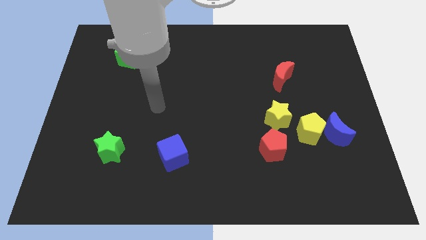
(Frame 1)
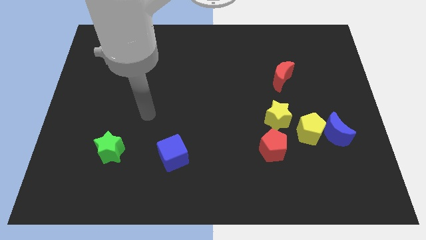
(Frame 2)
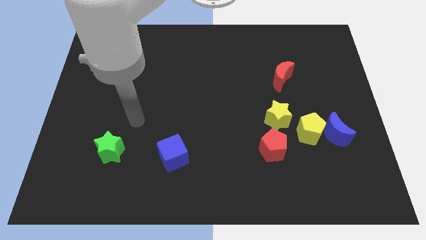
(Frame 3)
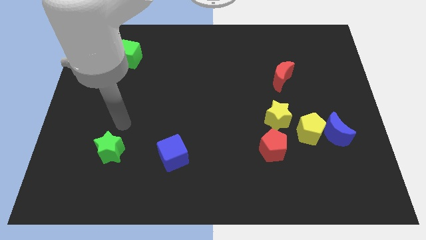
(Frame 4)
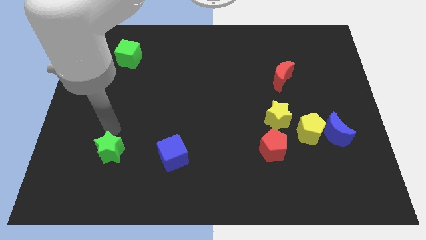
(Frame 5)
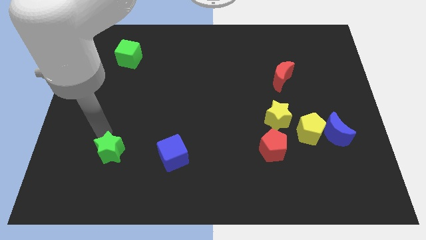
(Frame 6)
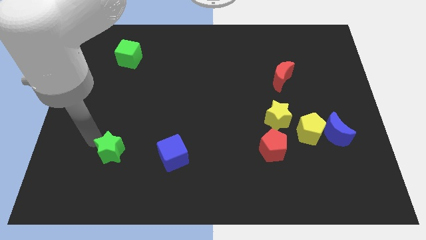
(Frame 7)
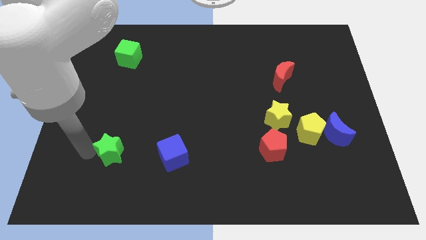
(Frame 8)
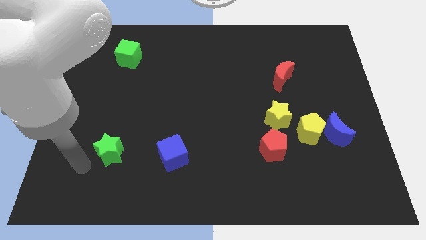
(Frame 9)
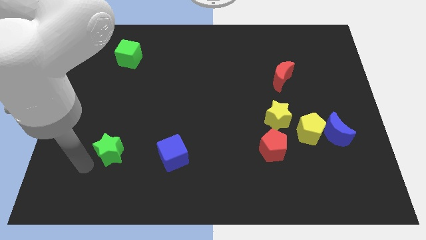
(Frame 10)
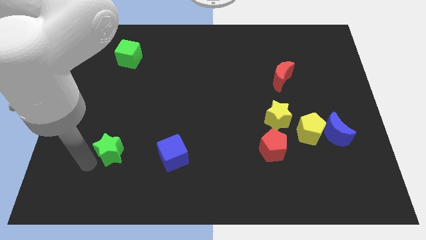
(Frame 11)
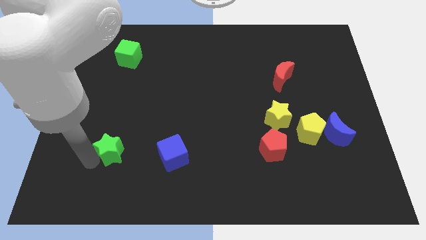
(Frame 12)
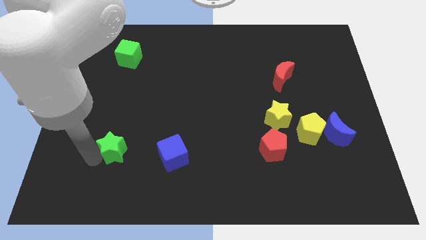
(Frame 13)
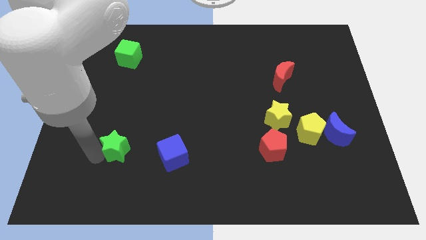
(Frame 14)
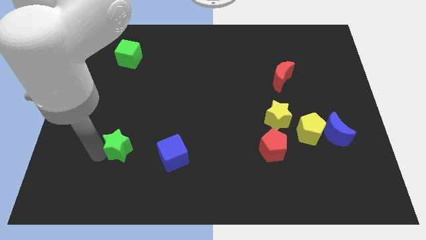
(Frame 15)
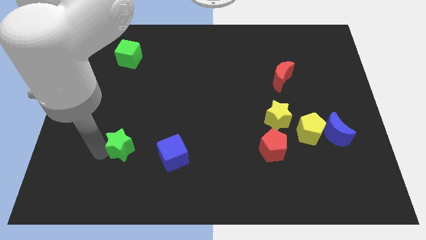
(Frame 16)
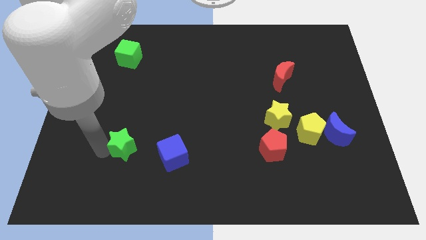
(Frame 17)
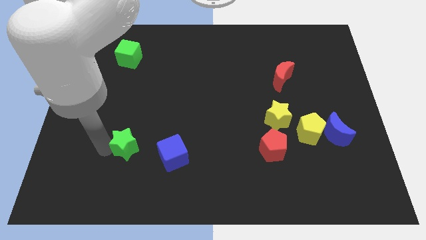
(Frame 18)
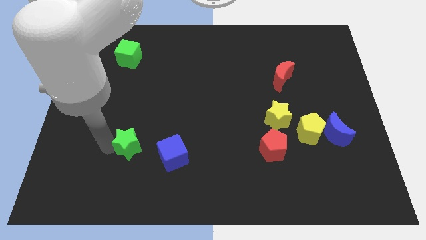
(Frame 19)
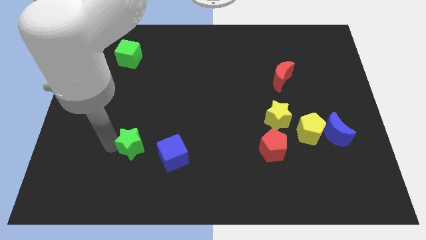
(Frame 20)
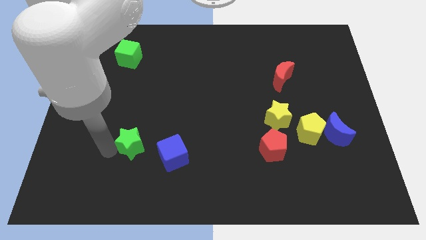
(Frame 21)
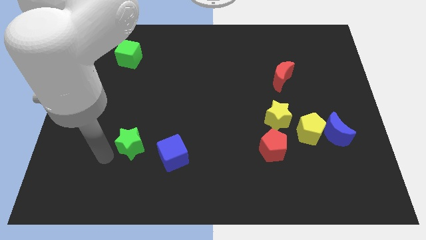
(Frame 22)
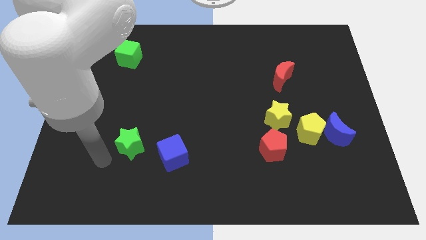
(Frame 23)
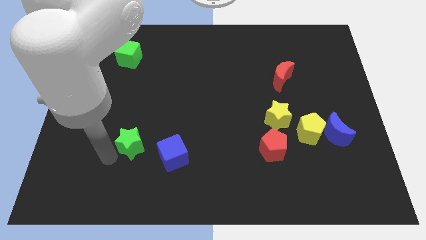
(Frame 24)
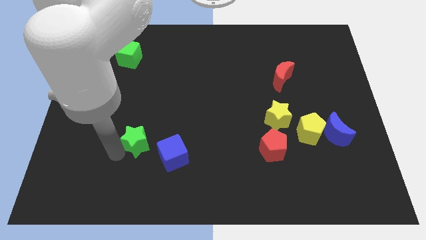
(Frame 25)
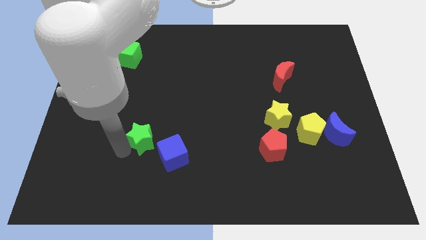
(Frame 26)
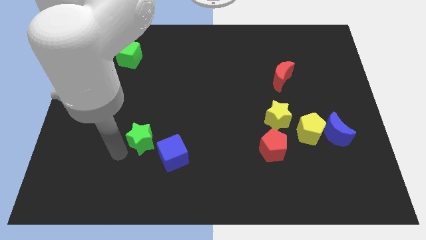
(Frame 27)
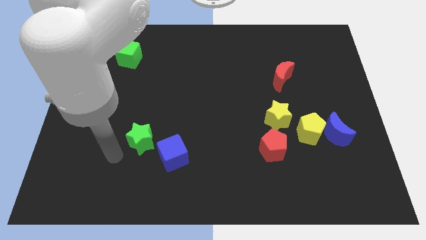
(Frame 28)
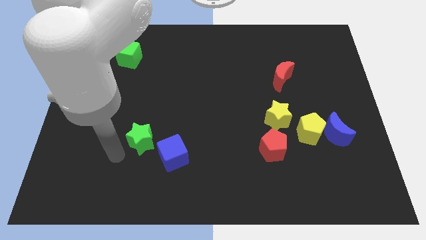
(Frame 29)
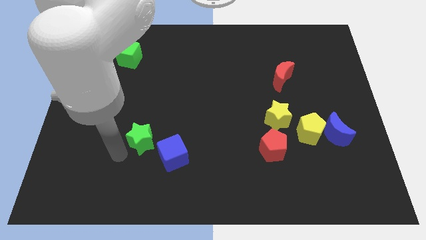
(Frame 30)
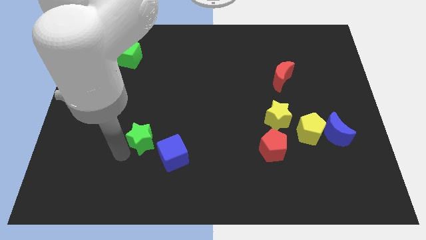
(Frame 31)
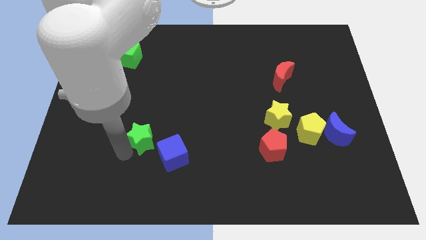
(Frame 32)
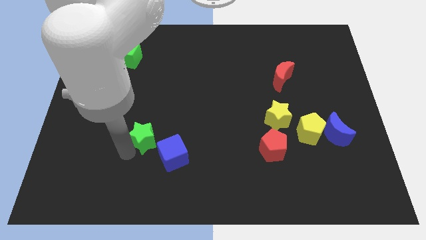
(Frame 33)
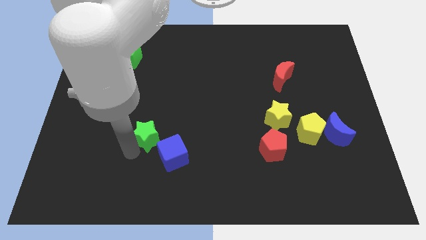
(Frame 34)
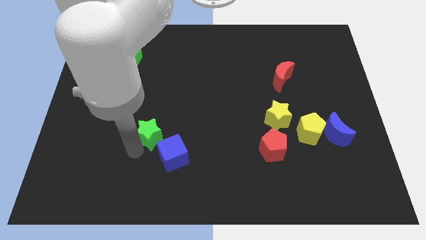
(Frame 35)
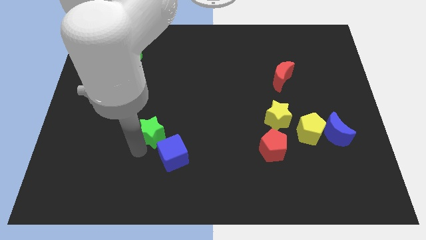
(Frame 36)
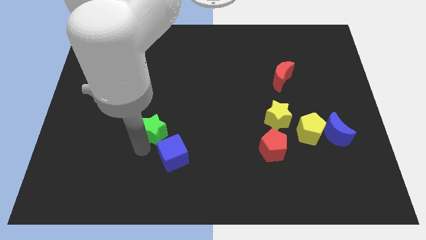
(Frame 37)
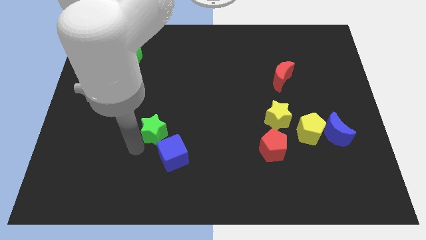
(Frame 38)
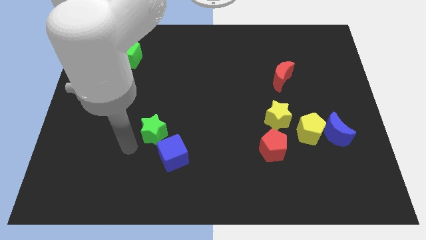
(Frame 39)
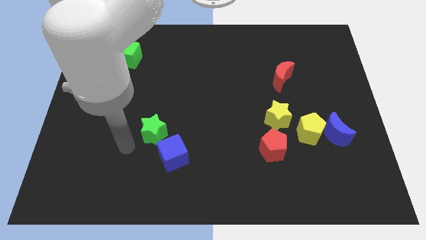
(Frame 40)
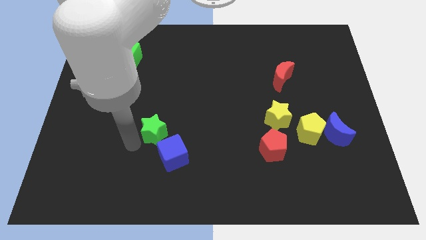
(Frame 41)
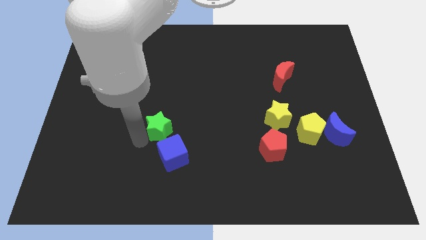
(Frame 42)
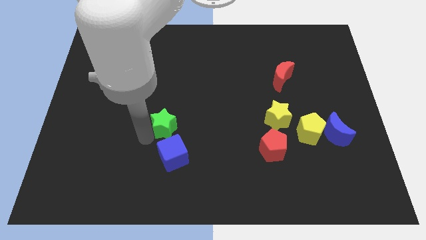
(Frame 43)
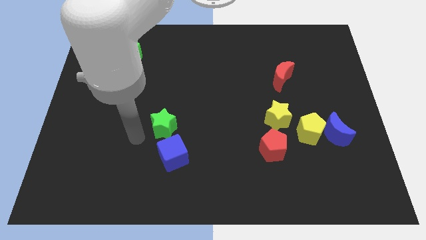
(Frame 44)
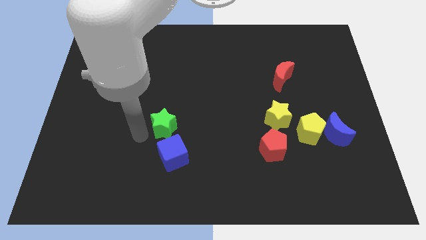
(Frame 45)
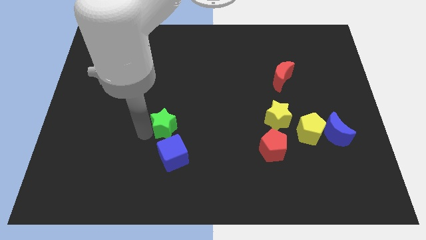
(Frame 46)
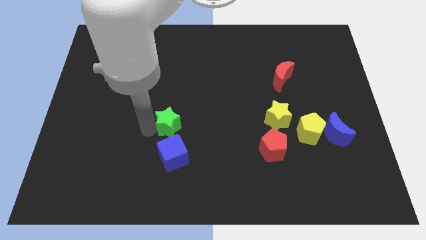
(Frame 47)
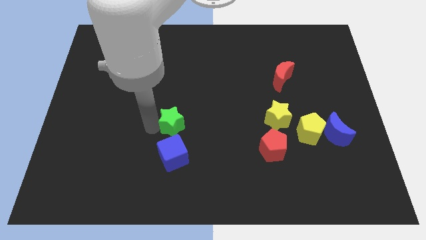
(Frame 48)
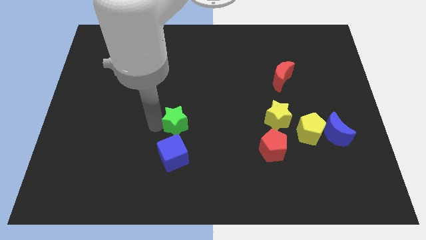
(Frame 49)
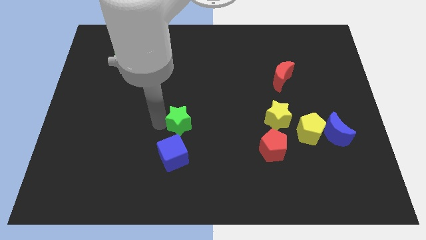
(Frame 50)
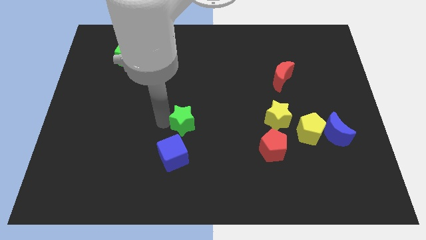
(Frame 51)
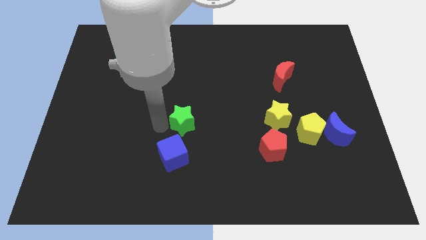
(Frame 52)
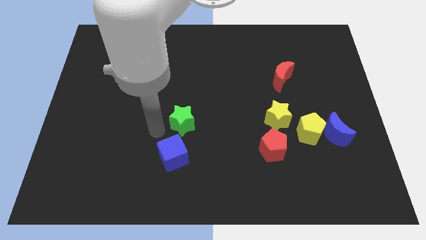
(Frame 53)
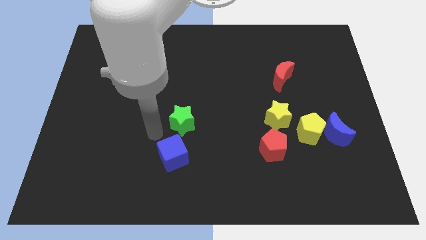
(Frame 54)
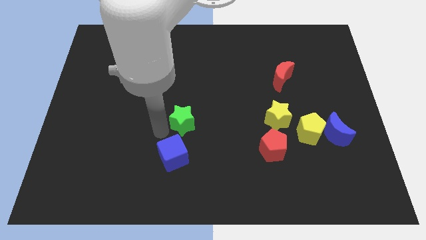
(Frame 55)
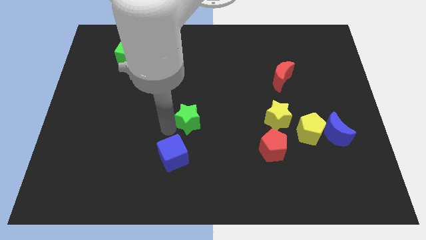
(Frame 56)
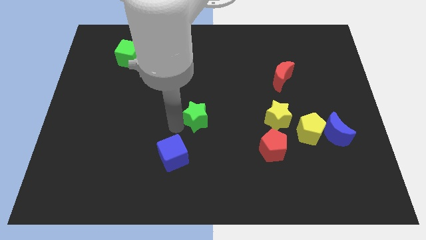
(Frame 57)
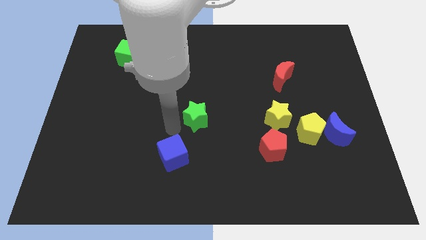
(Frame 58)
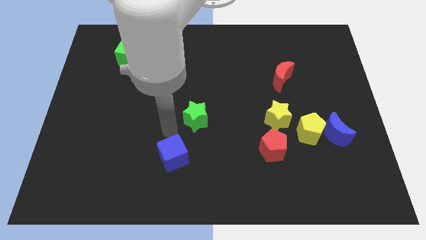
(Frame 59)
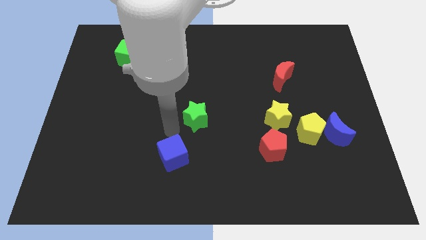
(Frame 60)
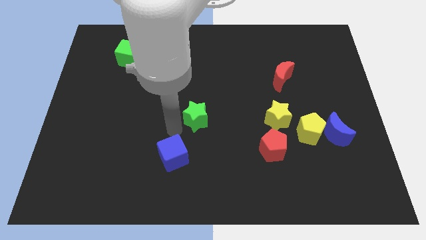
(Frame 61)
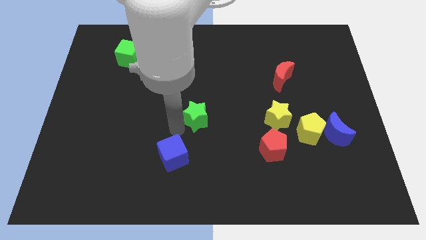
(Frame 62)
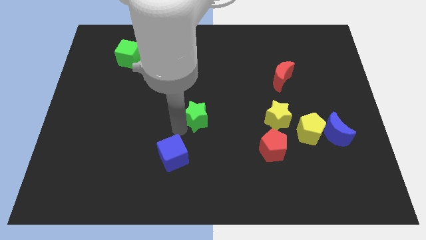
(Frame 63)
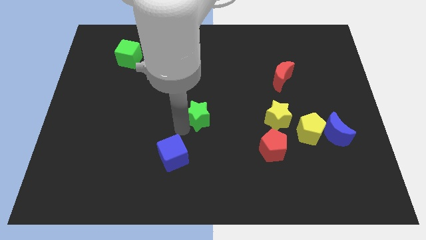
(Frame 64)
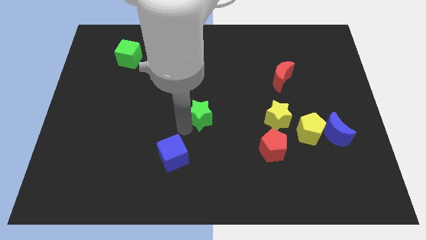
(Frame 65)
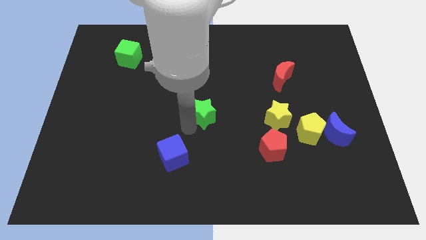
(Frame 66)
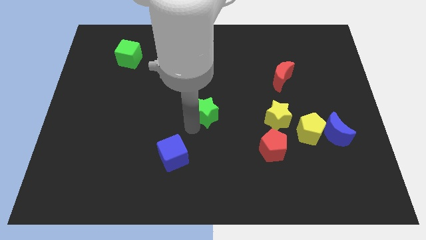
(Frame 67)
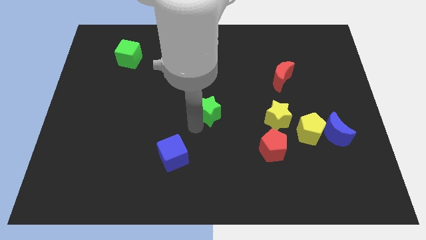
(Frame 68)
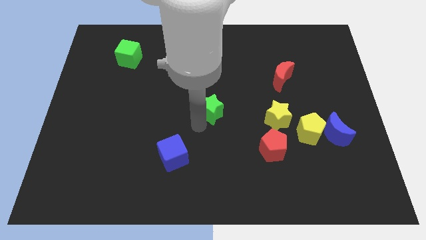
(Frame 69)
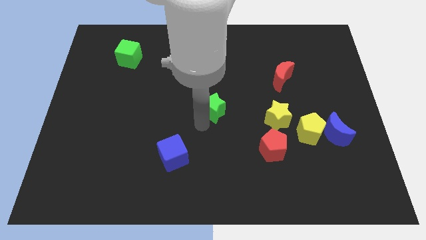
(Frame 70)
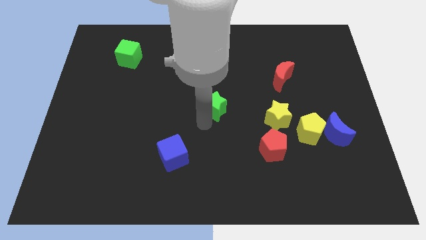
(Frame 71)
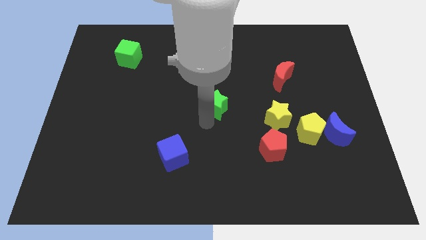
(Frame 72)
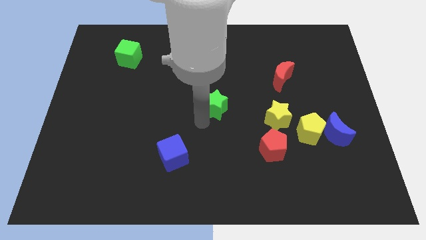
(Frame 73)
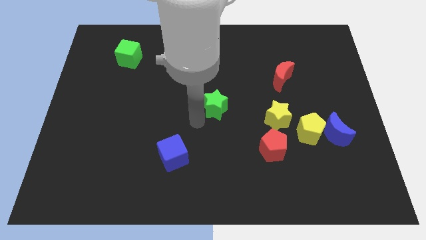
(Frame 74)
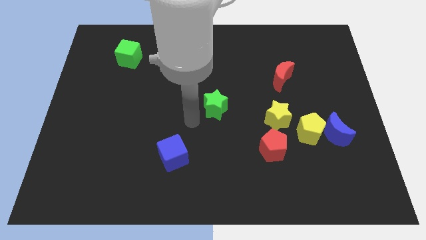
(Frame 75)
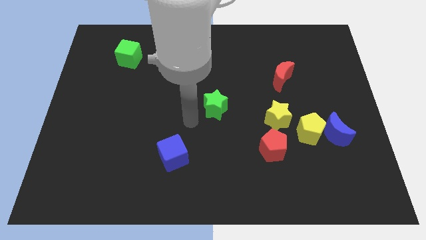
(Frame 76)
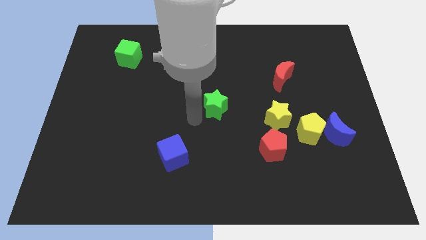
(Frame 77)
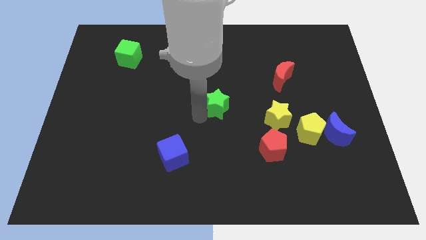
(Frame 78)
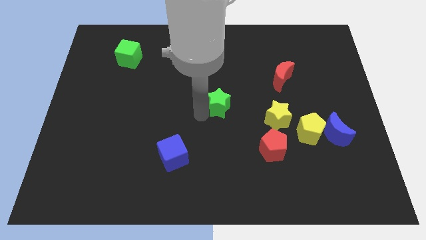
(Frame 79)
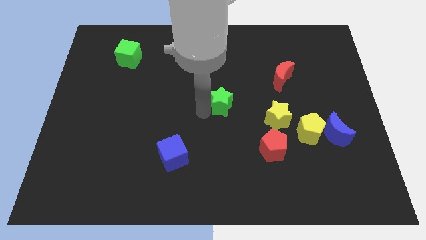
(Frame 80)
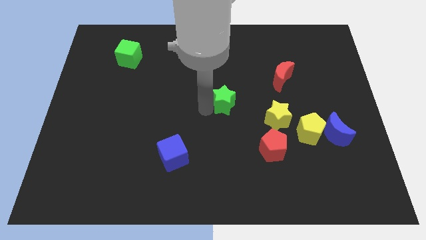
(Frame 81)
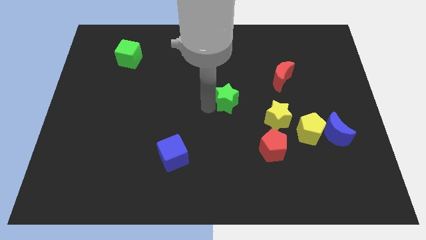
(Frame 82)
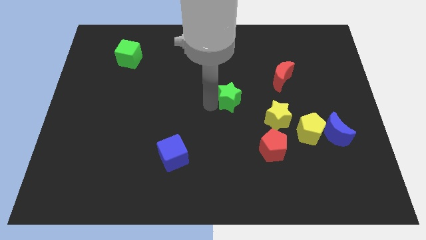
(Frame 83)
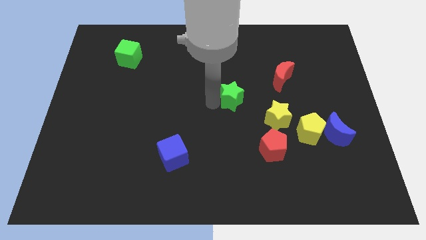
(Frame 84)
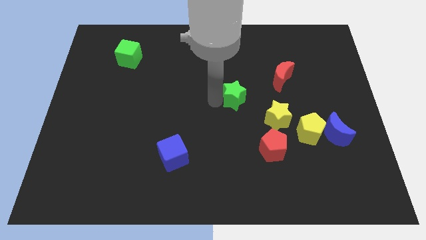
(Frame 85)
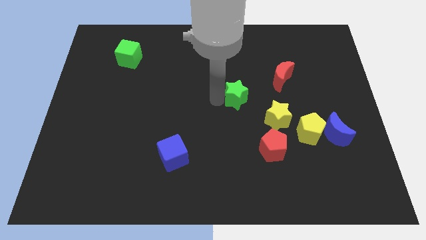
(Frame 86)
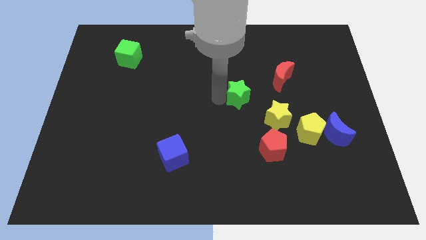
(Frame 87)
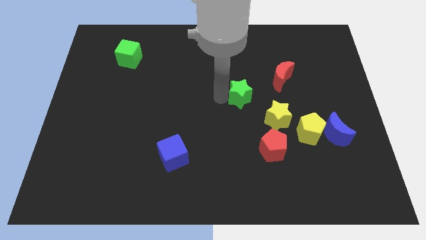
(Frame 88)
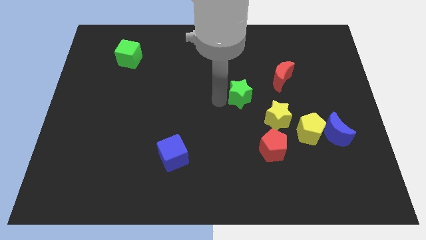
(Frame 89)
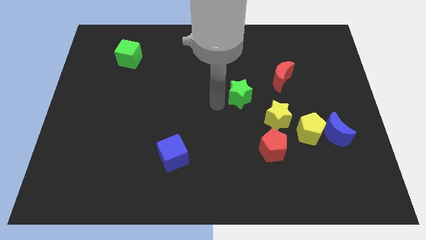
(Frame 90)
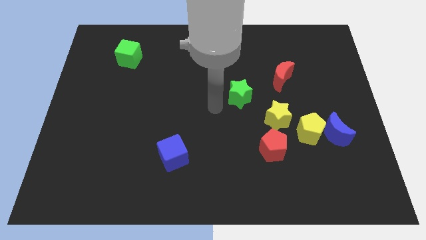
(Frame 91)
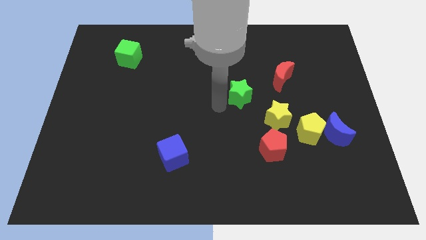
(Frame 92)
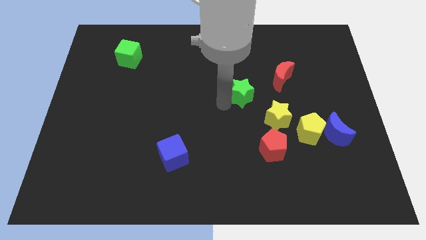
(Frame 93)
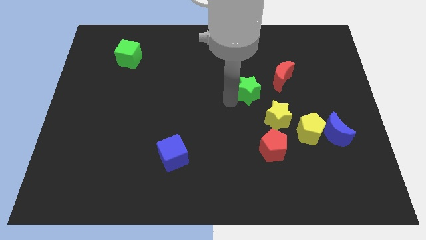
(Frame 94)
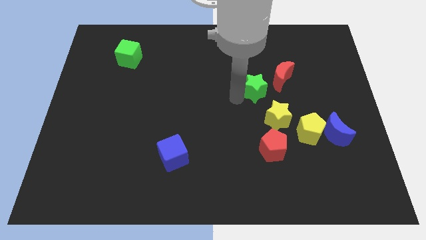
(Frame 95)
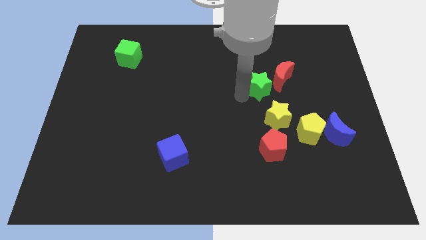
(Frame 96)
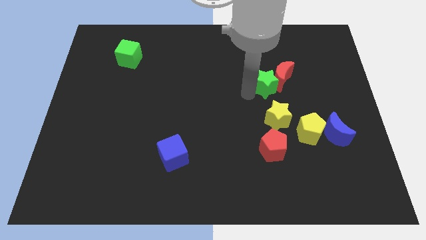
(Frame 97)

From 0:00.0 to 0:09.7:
put the green star next to the red moon
